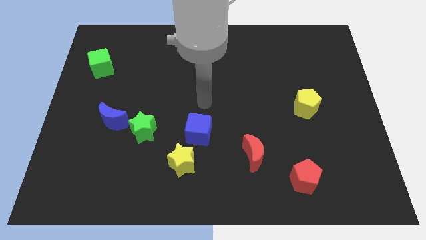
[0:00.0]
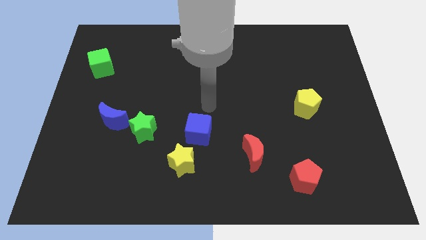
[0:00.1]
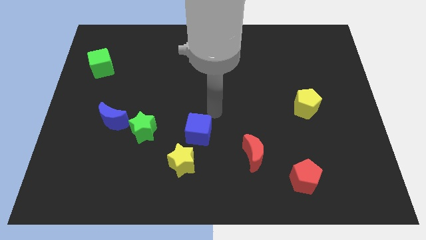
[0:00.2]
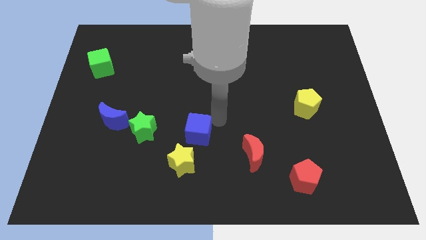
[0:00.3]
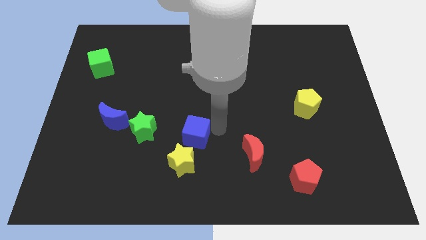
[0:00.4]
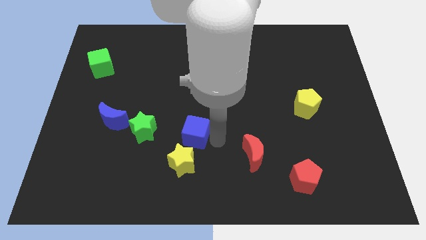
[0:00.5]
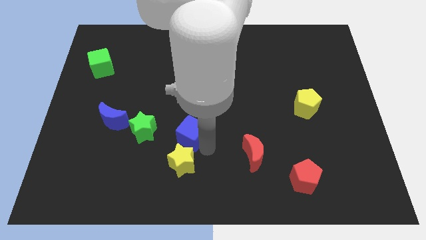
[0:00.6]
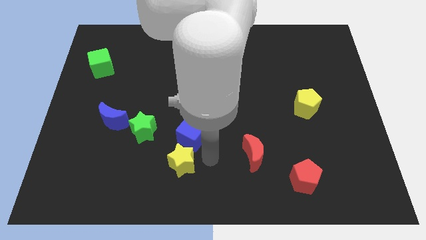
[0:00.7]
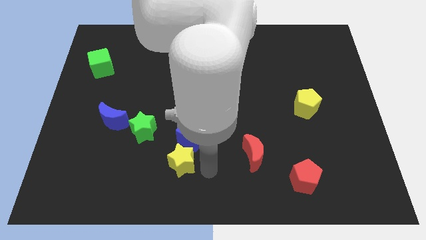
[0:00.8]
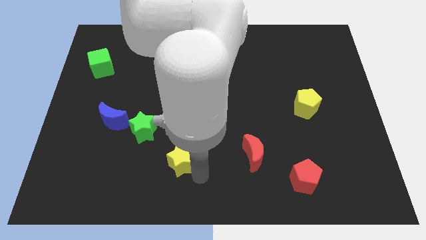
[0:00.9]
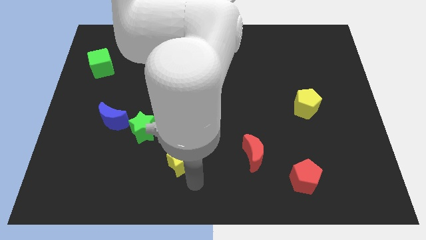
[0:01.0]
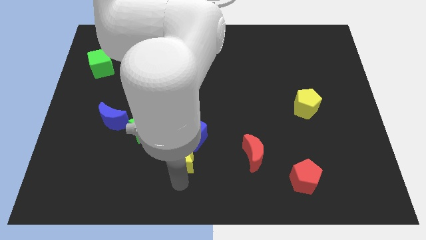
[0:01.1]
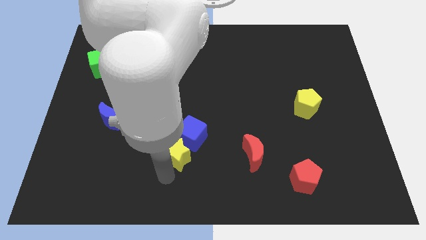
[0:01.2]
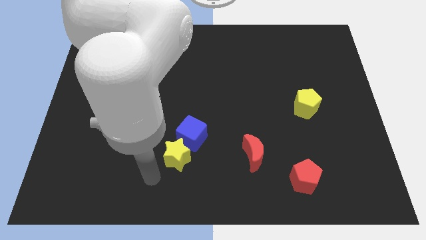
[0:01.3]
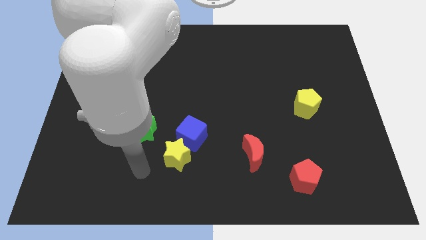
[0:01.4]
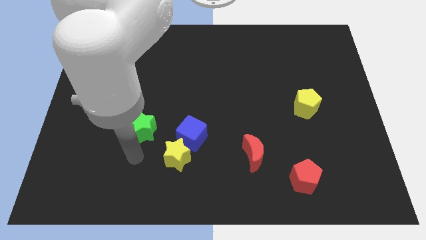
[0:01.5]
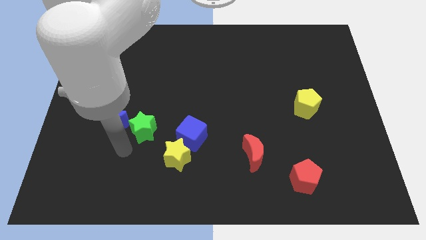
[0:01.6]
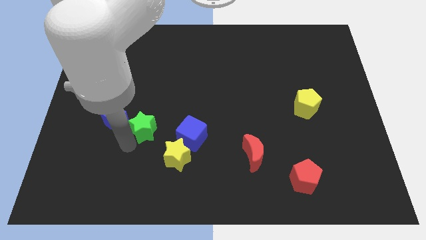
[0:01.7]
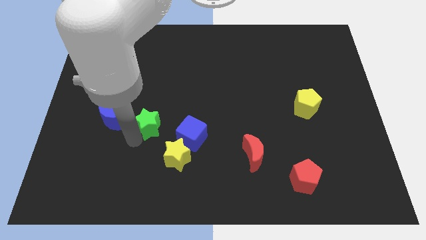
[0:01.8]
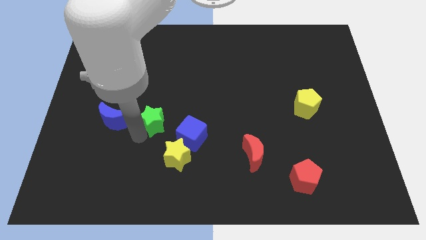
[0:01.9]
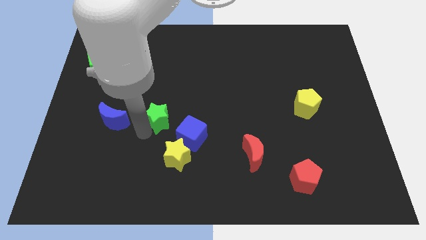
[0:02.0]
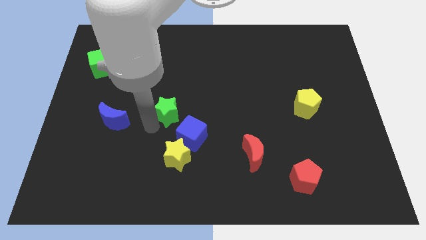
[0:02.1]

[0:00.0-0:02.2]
slide the green star a little diagonally upwards and to the right

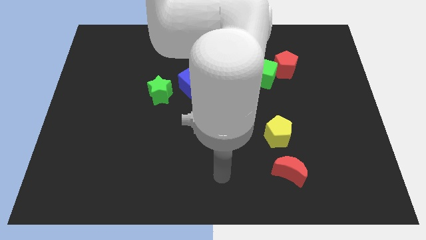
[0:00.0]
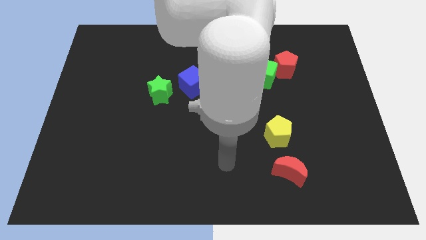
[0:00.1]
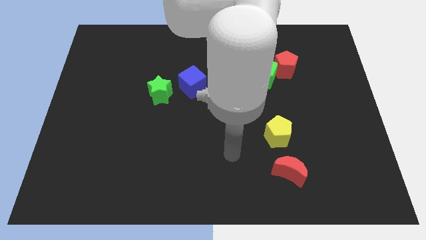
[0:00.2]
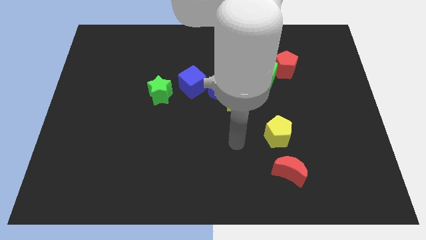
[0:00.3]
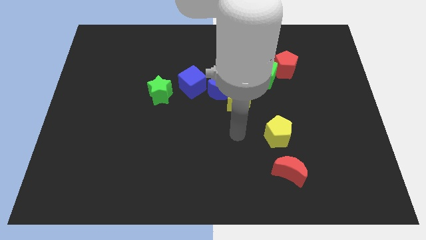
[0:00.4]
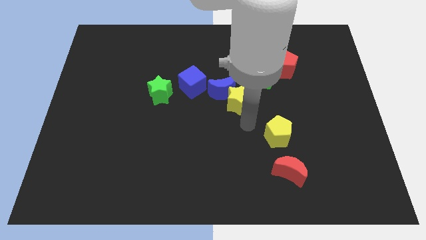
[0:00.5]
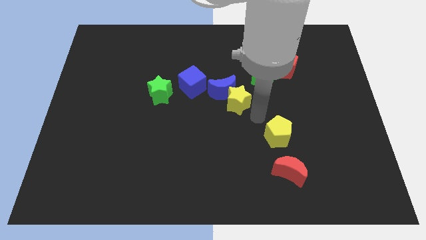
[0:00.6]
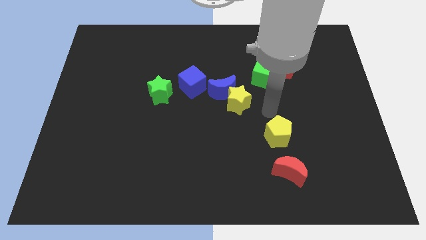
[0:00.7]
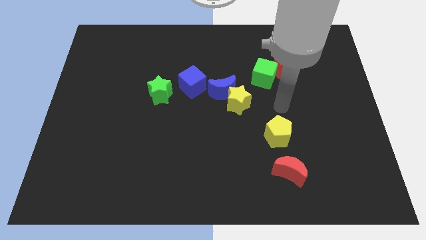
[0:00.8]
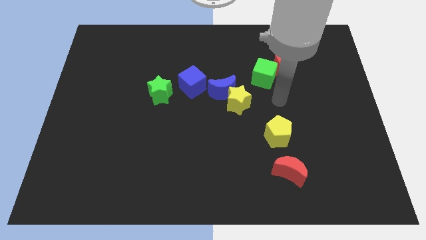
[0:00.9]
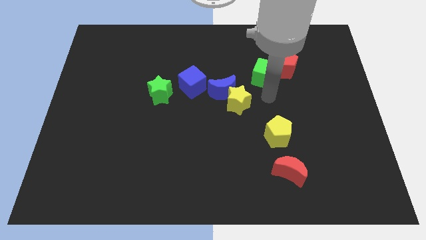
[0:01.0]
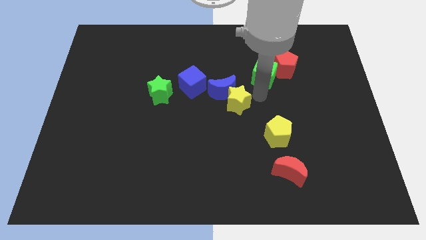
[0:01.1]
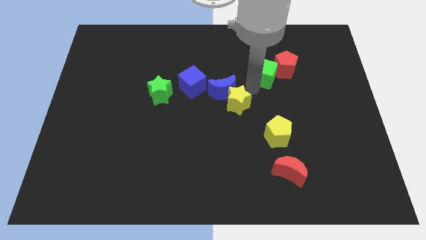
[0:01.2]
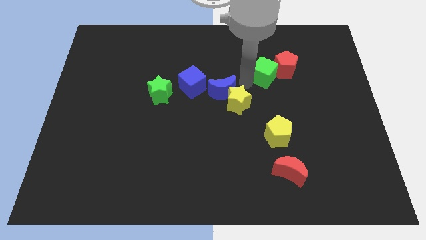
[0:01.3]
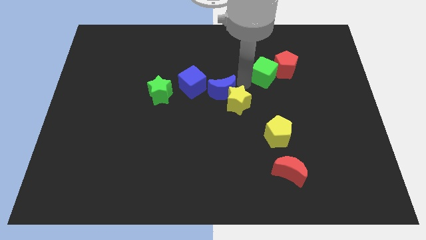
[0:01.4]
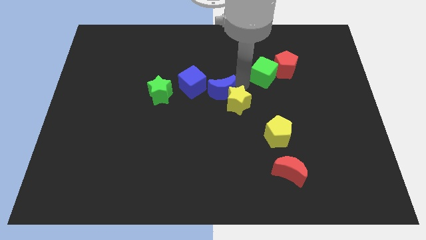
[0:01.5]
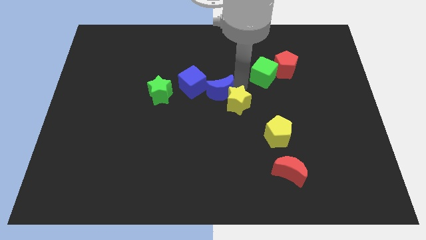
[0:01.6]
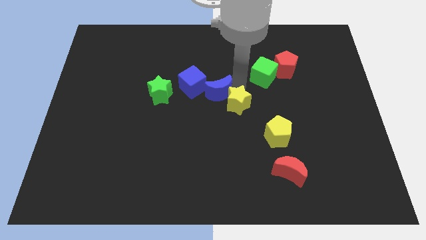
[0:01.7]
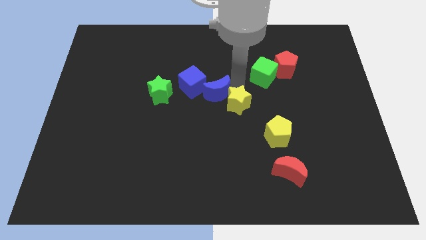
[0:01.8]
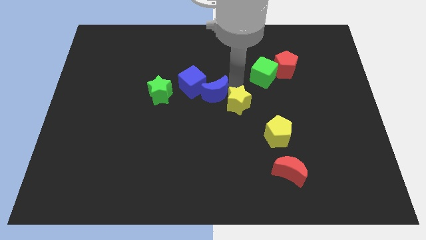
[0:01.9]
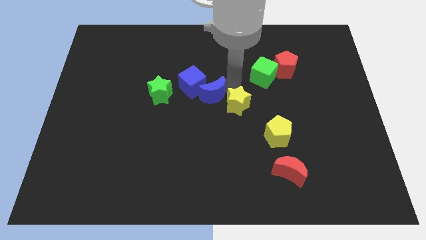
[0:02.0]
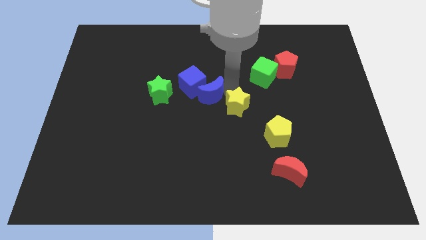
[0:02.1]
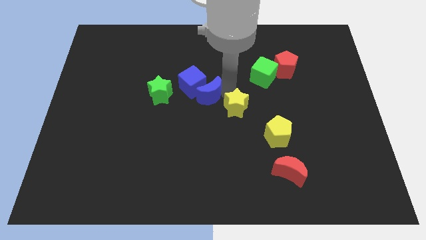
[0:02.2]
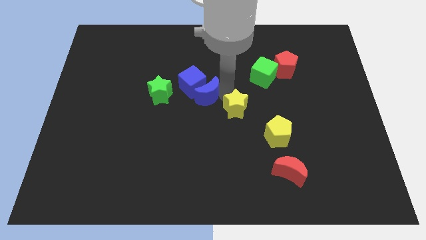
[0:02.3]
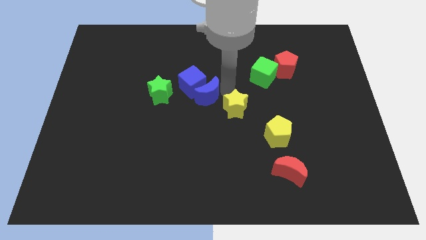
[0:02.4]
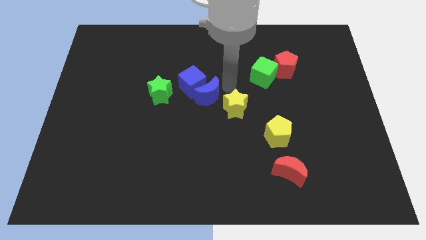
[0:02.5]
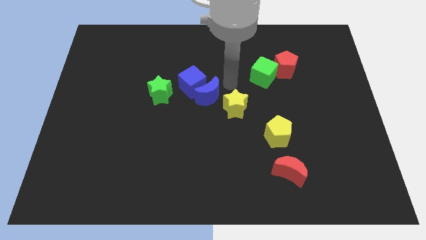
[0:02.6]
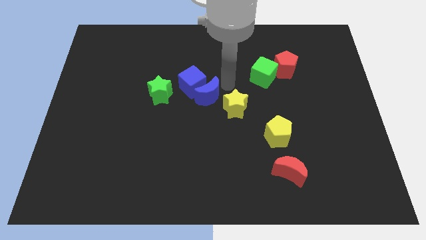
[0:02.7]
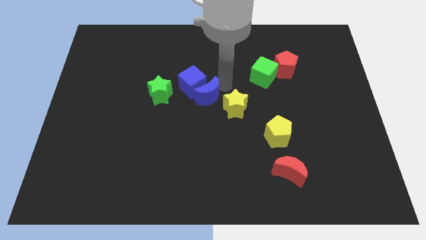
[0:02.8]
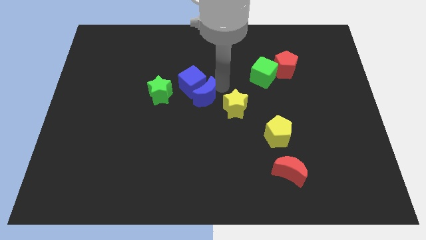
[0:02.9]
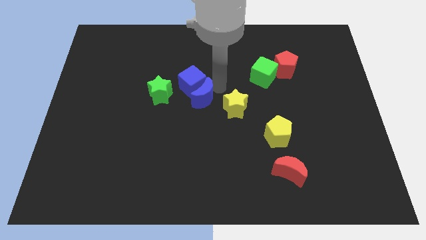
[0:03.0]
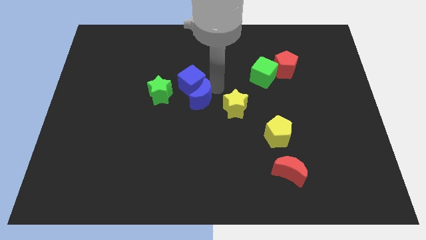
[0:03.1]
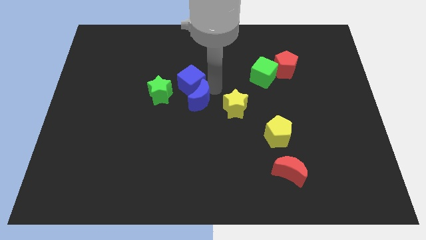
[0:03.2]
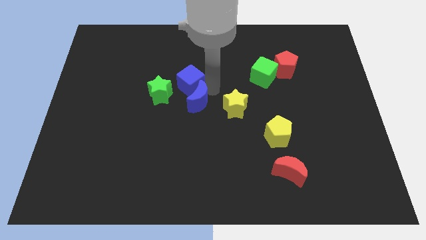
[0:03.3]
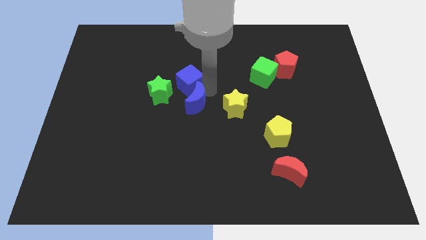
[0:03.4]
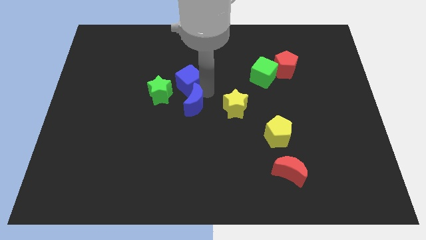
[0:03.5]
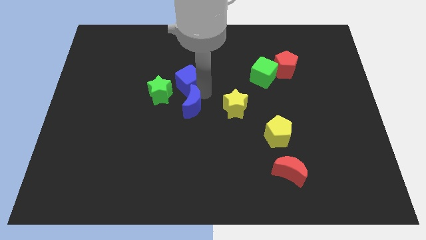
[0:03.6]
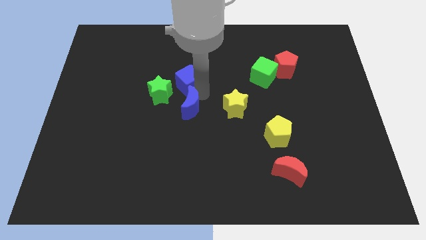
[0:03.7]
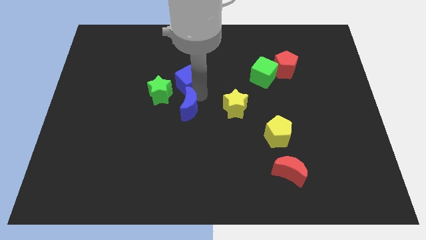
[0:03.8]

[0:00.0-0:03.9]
slightly slide the blue moon left

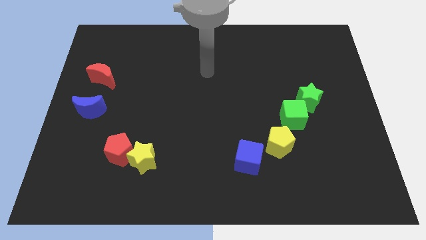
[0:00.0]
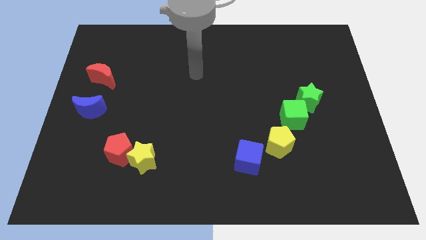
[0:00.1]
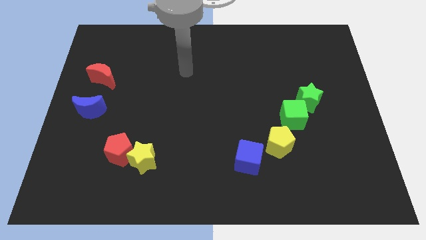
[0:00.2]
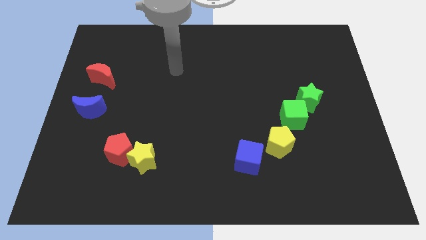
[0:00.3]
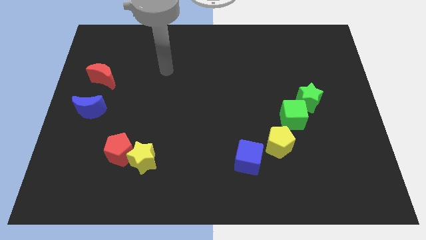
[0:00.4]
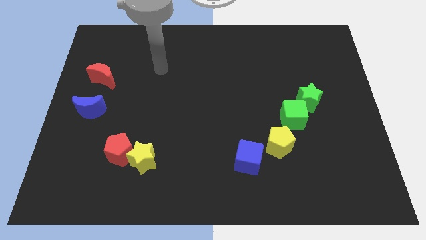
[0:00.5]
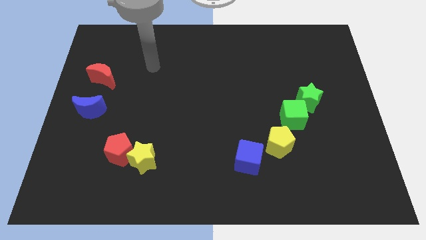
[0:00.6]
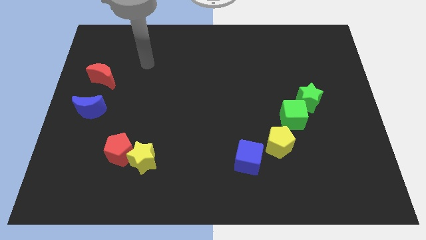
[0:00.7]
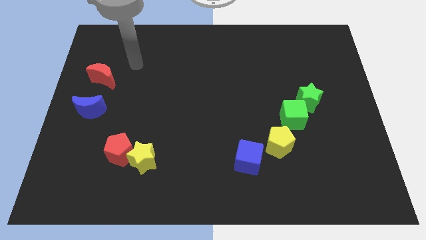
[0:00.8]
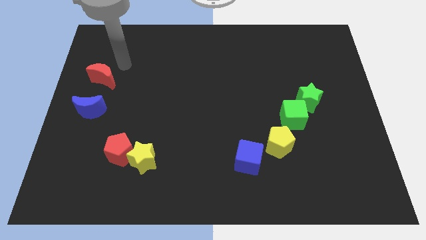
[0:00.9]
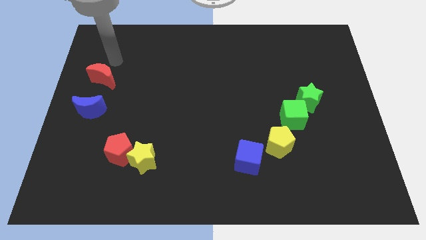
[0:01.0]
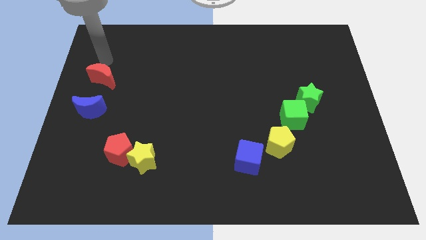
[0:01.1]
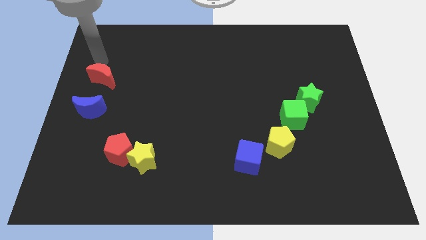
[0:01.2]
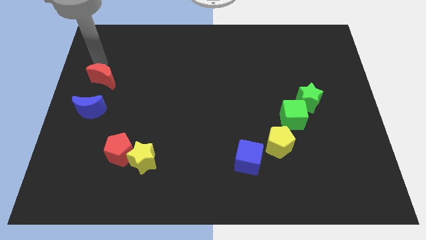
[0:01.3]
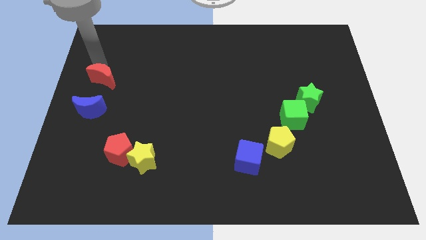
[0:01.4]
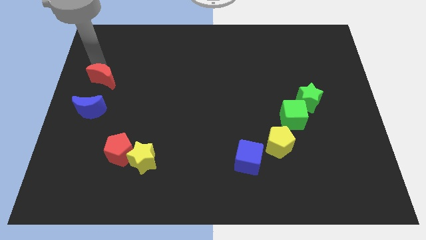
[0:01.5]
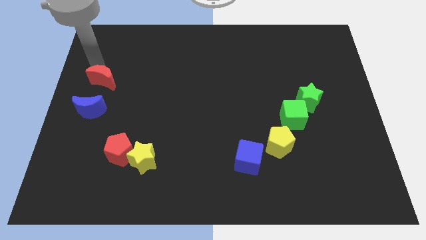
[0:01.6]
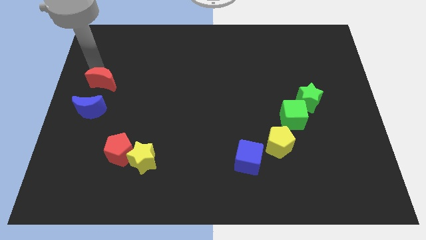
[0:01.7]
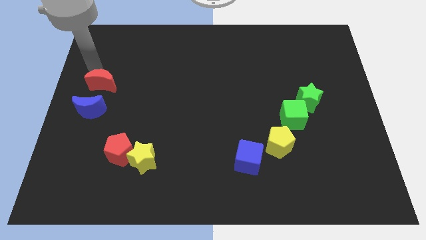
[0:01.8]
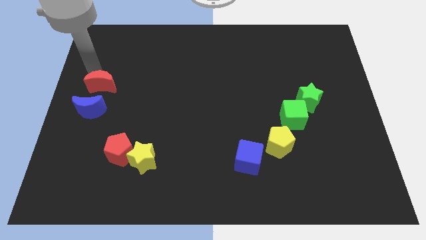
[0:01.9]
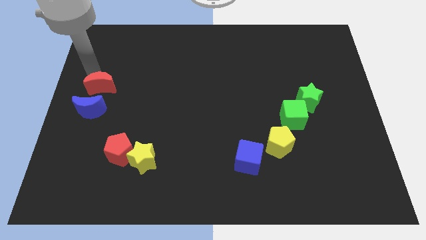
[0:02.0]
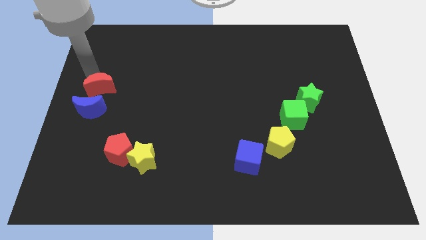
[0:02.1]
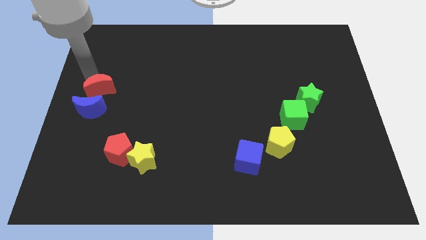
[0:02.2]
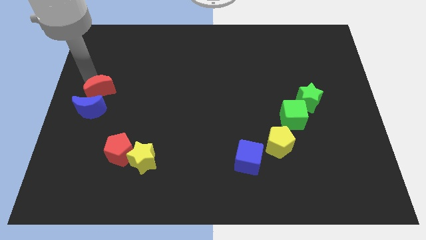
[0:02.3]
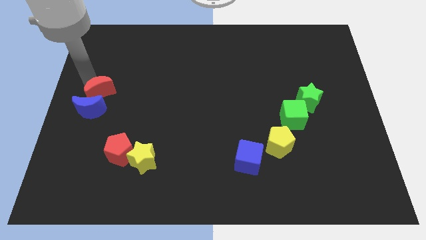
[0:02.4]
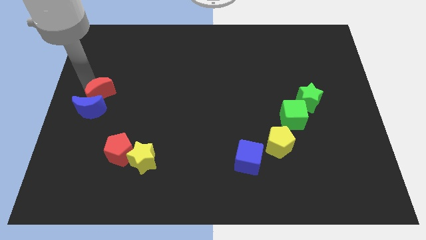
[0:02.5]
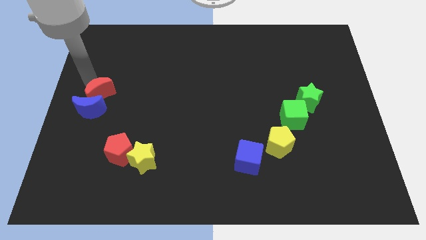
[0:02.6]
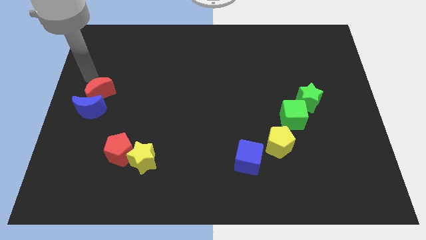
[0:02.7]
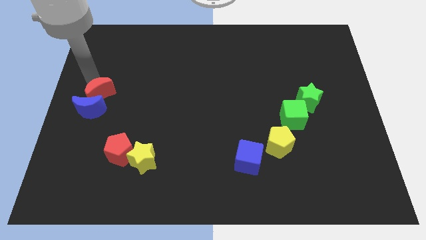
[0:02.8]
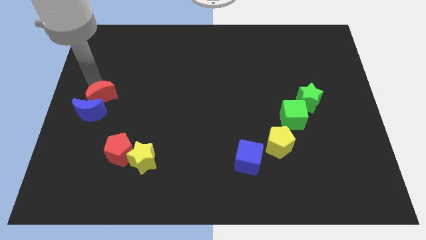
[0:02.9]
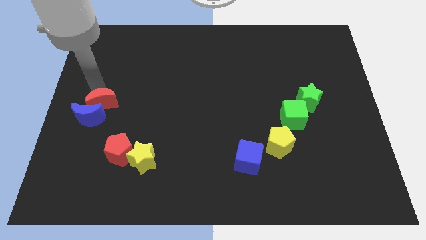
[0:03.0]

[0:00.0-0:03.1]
slightly push the red moon down
